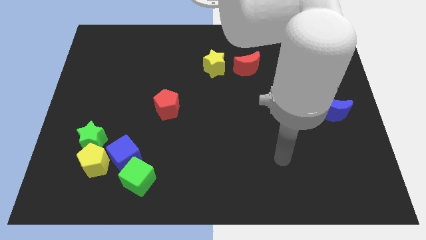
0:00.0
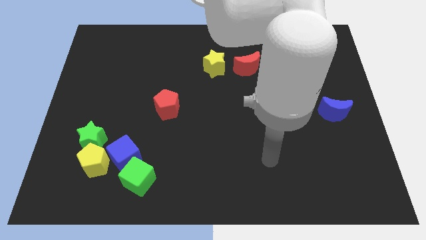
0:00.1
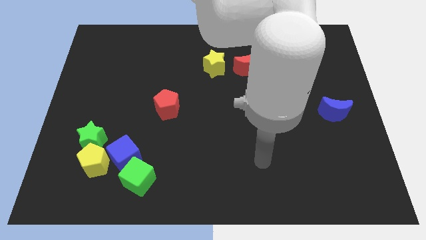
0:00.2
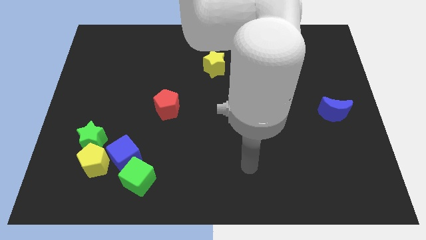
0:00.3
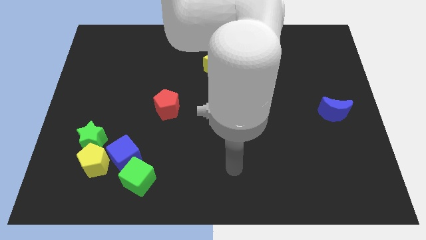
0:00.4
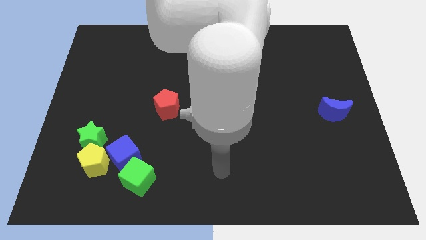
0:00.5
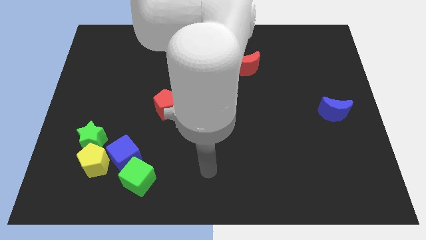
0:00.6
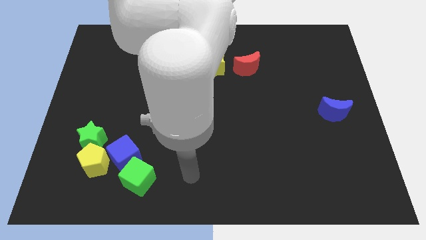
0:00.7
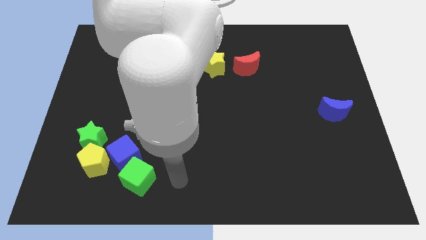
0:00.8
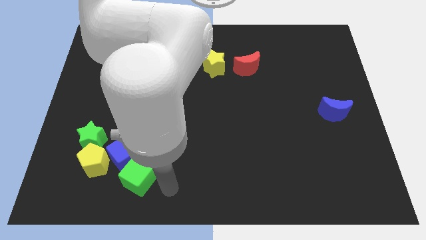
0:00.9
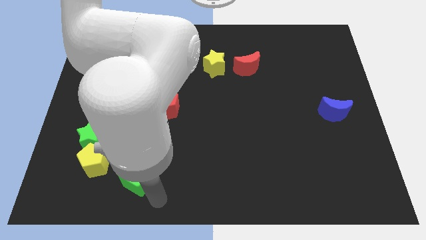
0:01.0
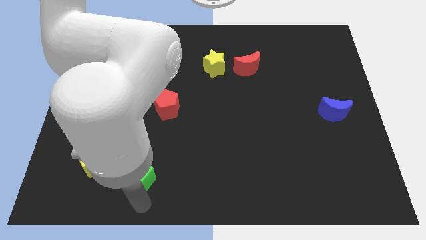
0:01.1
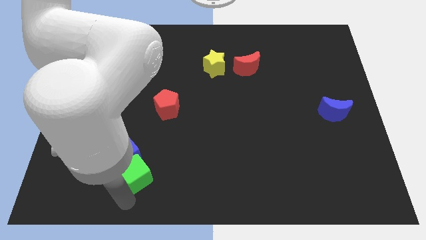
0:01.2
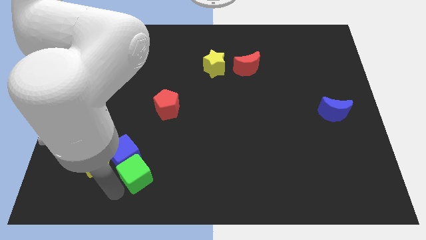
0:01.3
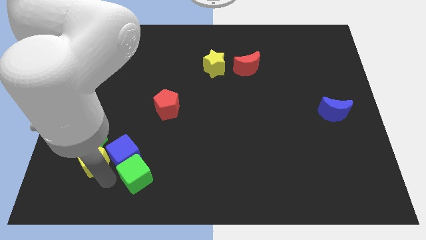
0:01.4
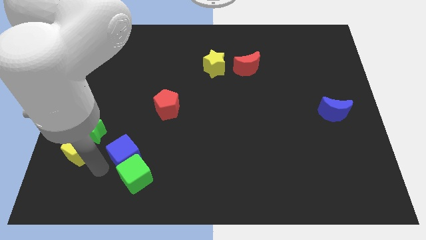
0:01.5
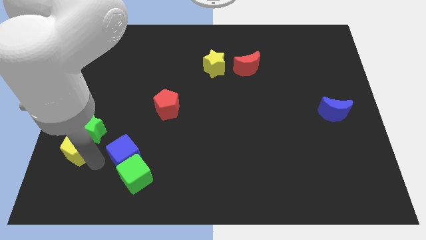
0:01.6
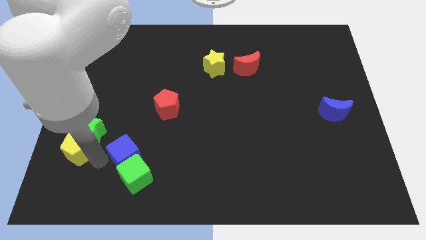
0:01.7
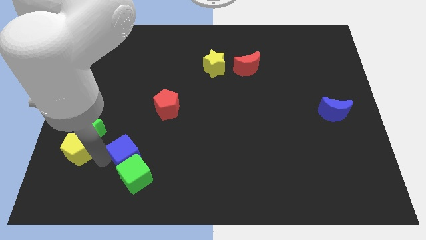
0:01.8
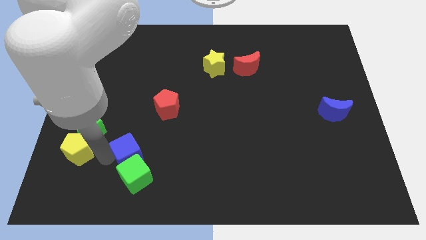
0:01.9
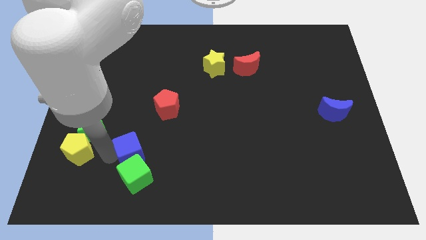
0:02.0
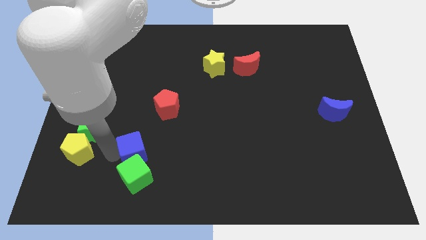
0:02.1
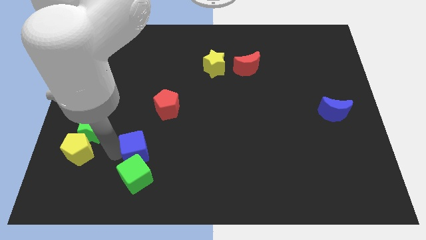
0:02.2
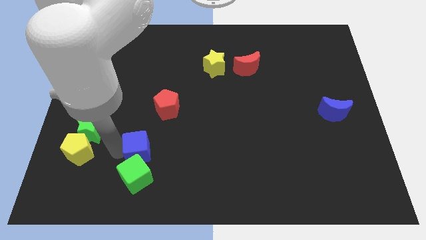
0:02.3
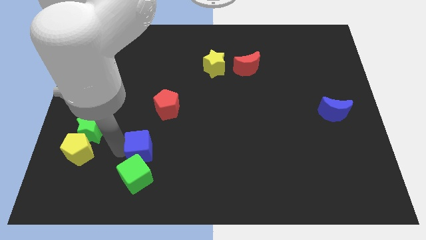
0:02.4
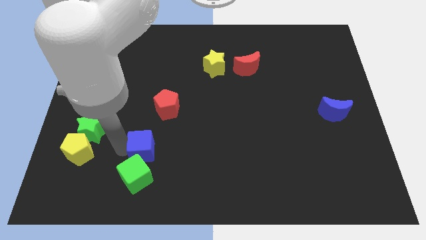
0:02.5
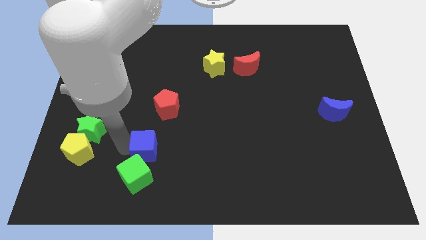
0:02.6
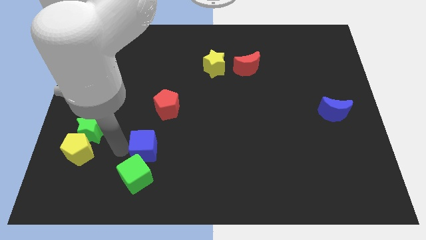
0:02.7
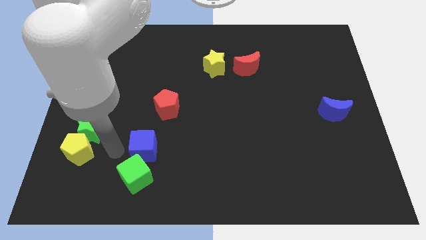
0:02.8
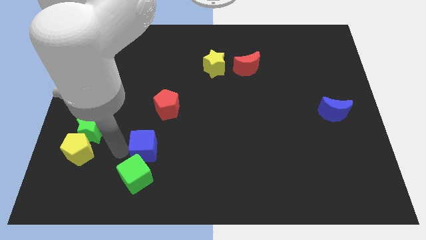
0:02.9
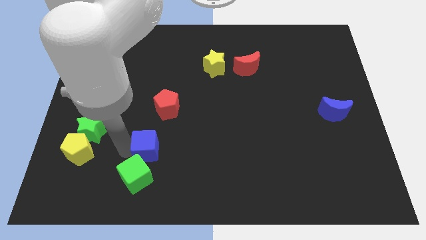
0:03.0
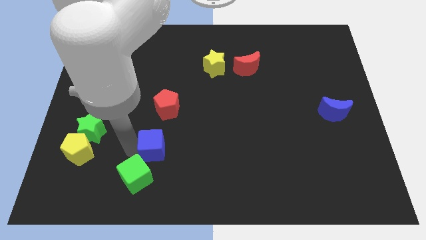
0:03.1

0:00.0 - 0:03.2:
move the blue cube away from the green cube, yellow pentagon, and green star

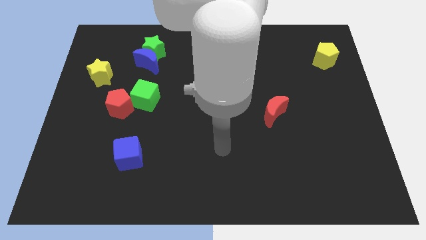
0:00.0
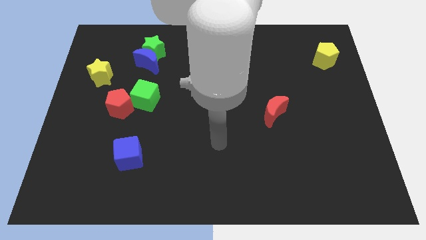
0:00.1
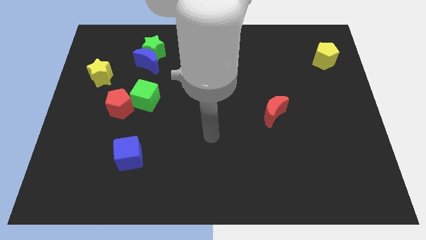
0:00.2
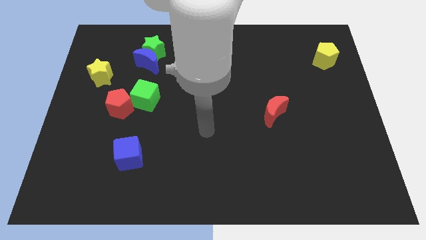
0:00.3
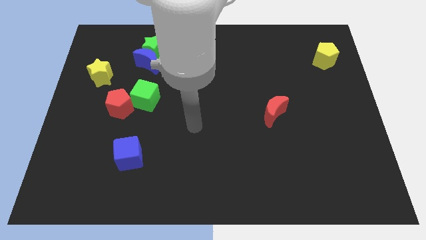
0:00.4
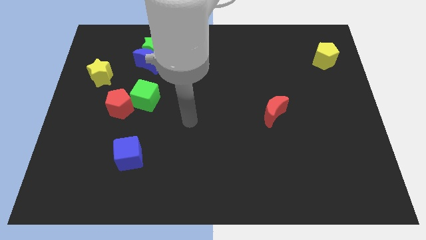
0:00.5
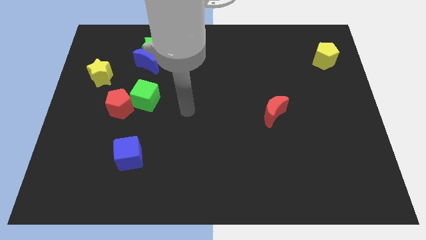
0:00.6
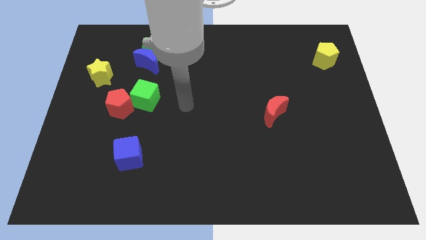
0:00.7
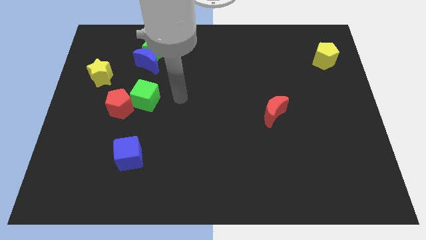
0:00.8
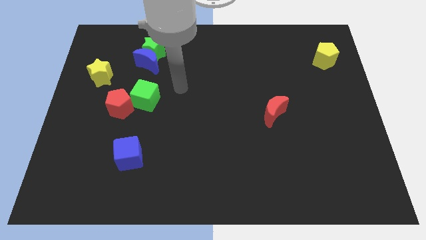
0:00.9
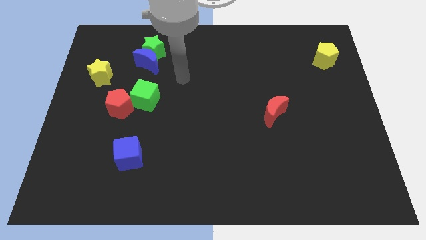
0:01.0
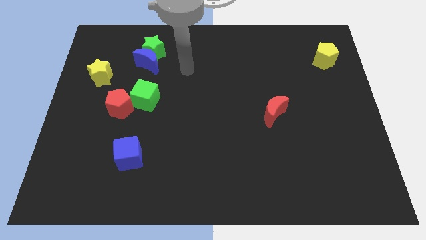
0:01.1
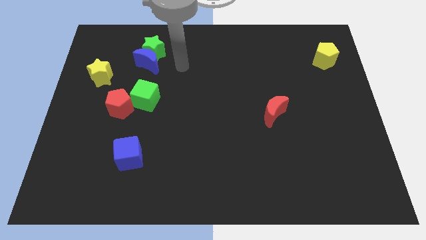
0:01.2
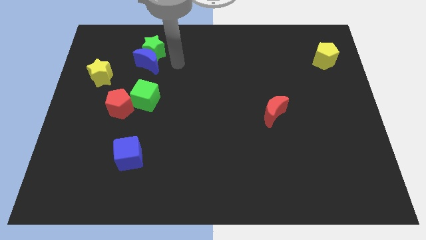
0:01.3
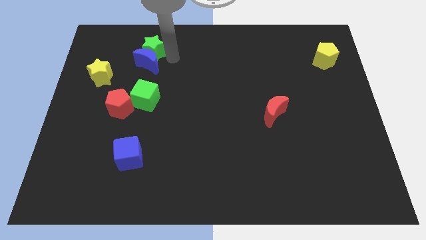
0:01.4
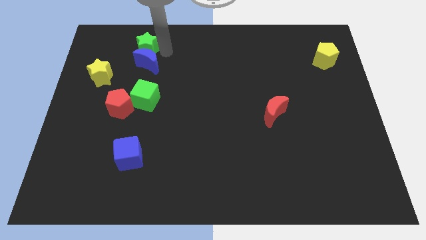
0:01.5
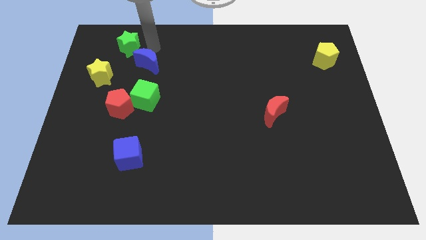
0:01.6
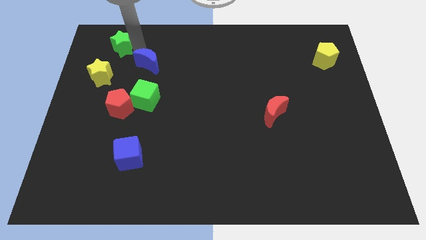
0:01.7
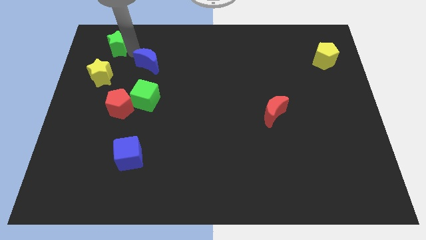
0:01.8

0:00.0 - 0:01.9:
pull the blue moon apart from the green star

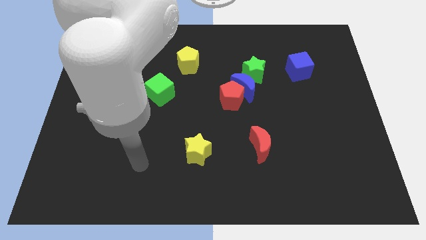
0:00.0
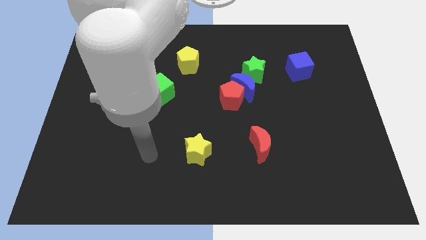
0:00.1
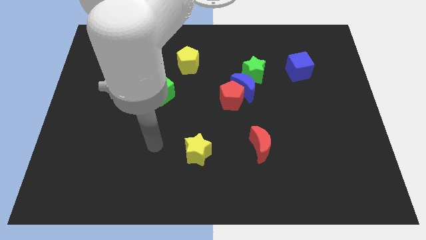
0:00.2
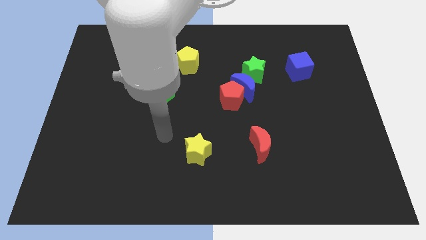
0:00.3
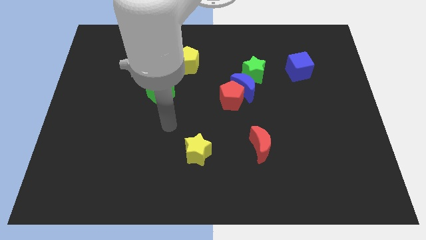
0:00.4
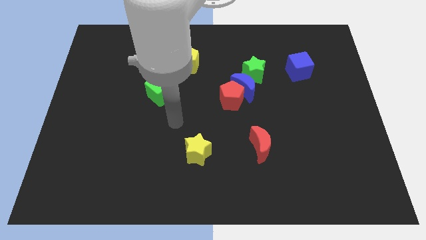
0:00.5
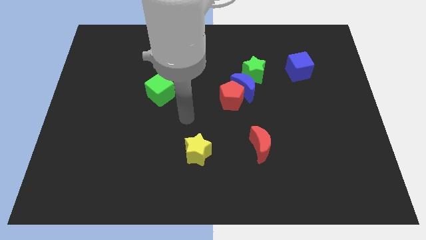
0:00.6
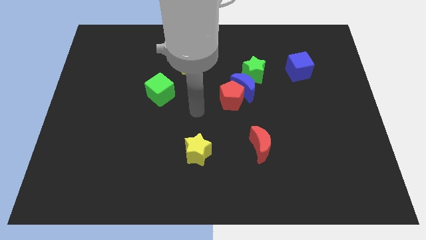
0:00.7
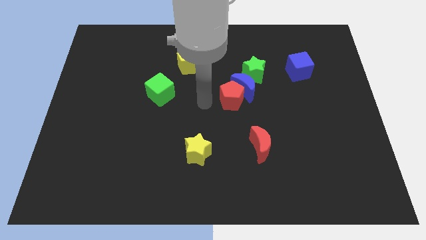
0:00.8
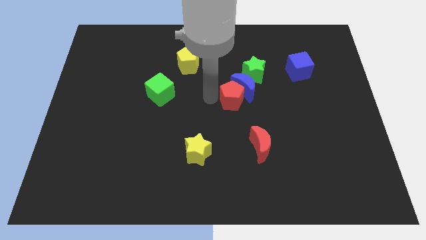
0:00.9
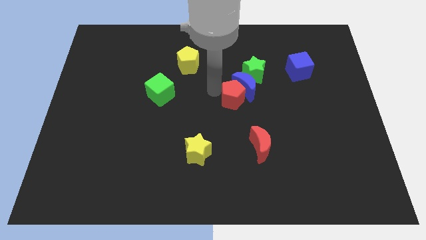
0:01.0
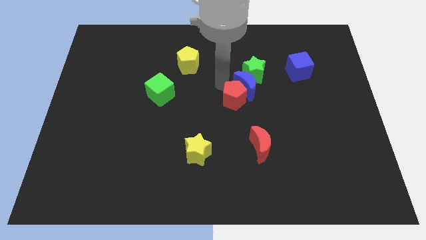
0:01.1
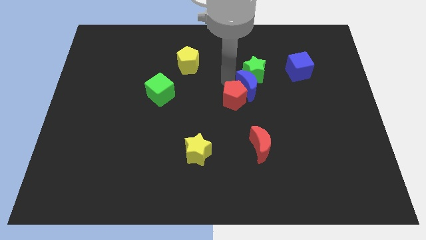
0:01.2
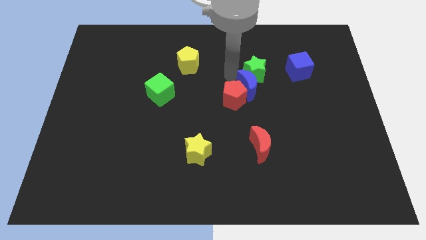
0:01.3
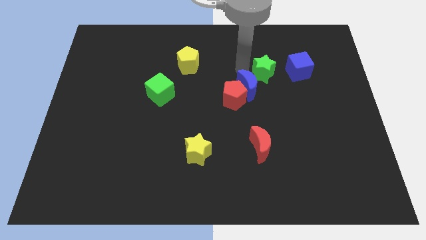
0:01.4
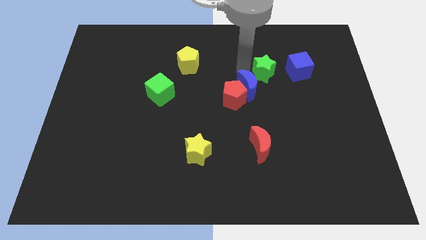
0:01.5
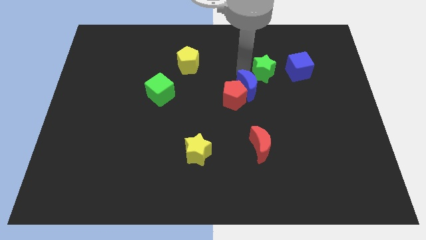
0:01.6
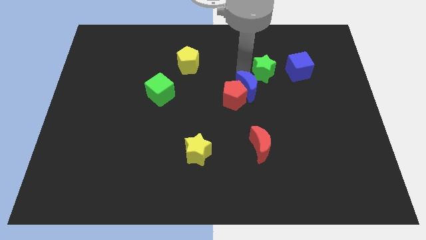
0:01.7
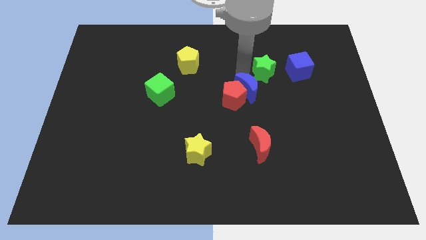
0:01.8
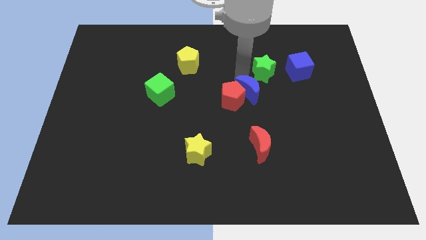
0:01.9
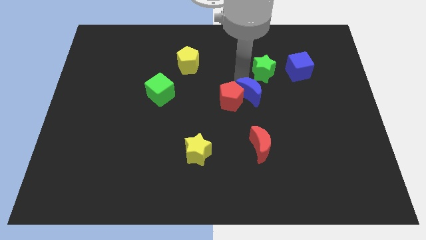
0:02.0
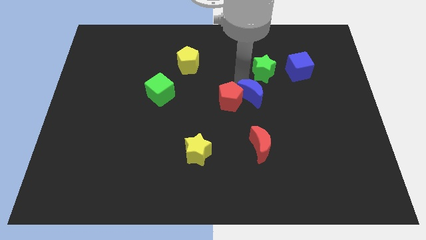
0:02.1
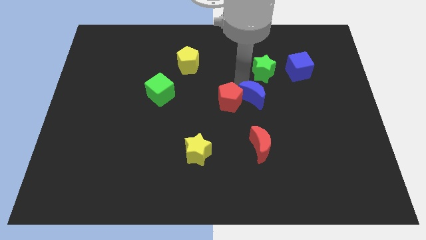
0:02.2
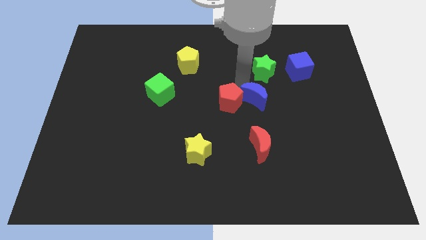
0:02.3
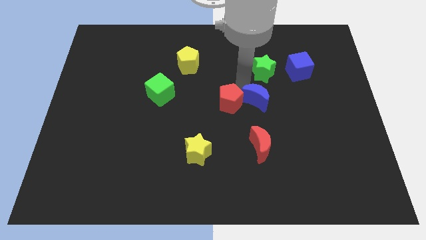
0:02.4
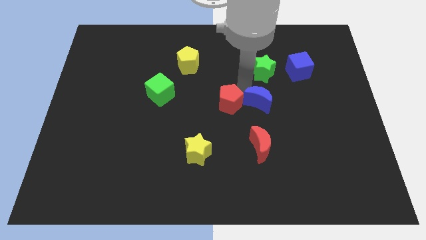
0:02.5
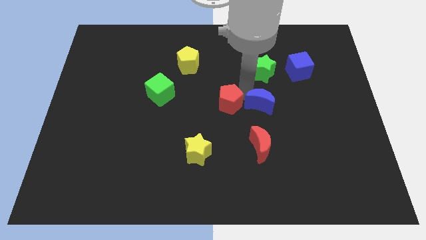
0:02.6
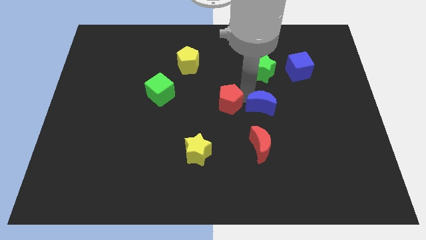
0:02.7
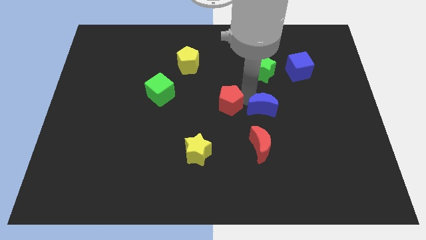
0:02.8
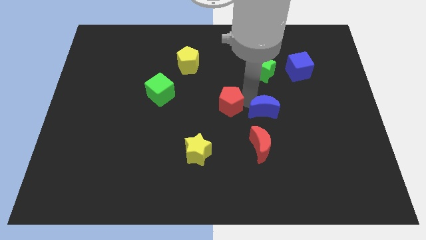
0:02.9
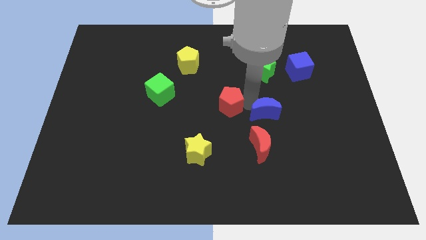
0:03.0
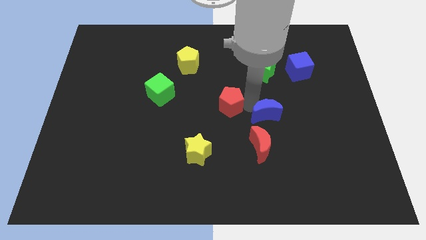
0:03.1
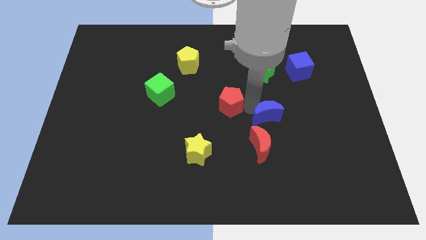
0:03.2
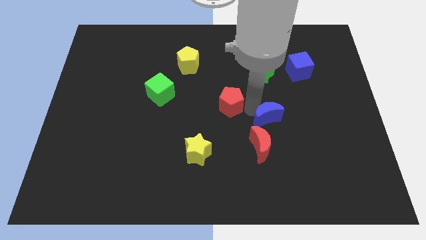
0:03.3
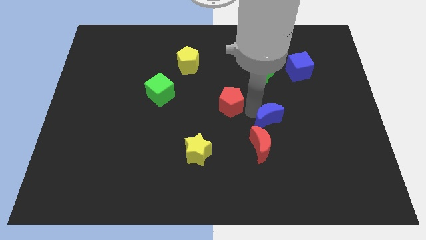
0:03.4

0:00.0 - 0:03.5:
move the blue moon away from the red pentagon and green star

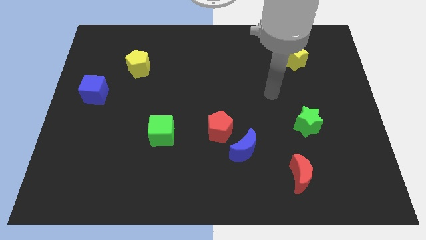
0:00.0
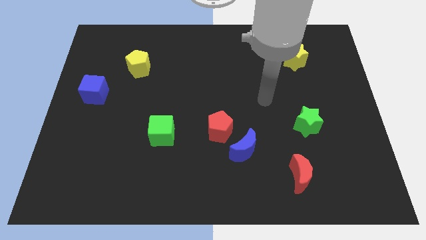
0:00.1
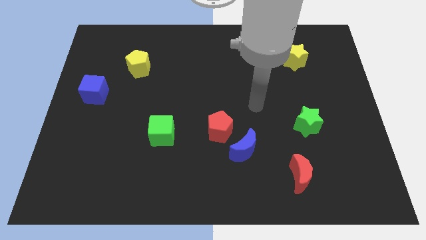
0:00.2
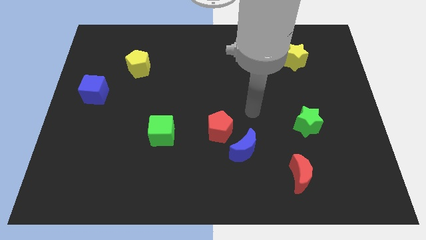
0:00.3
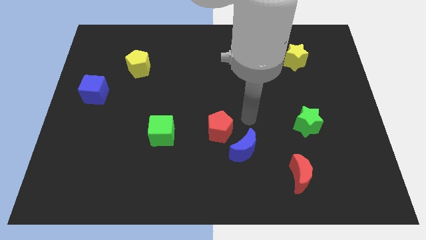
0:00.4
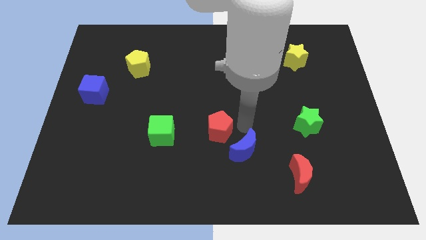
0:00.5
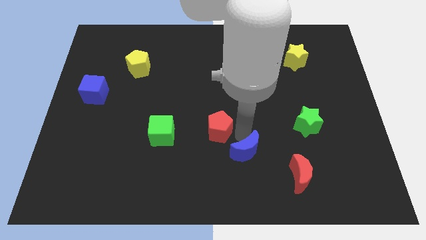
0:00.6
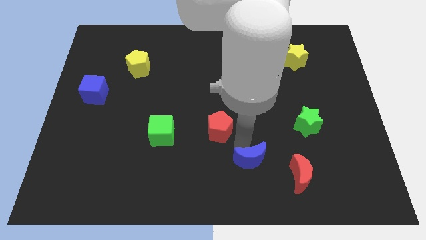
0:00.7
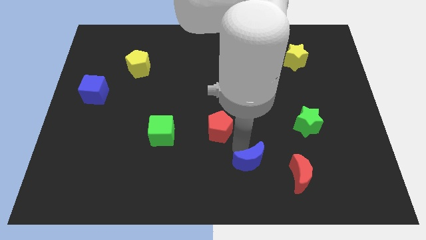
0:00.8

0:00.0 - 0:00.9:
move the red pentagon away from the blue moon

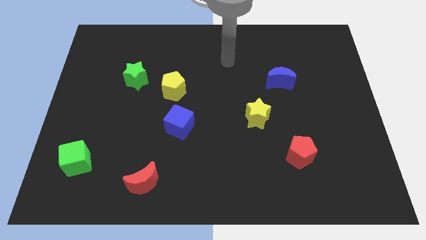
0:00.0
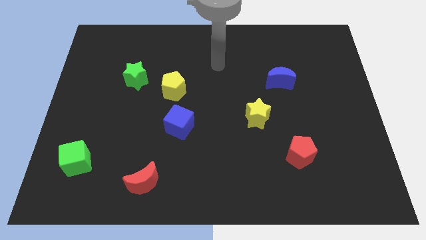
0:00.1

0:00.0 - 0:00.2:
pull the green star apart from the yellow pentagon
